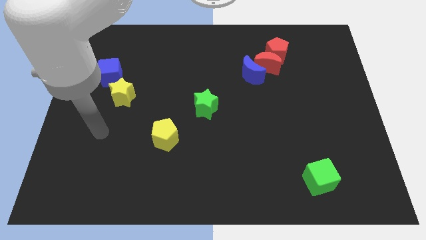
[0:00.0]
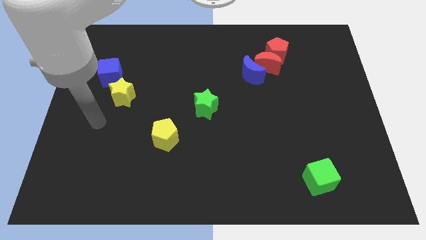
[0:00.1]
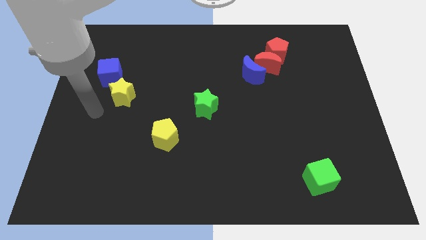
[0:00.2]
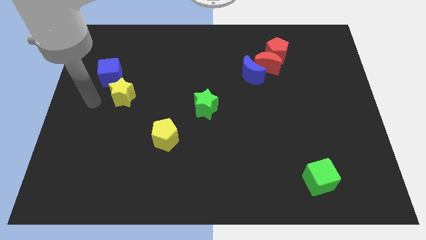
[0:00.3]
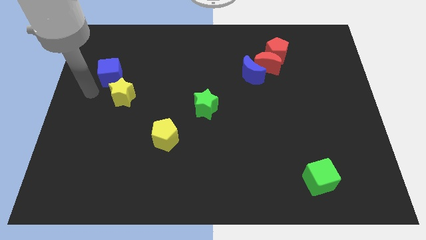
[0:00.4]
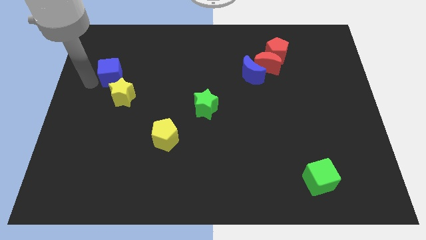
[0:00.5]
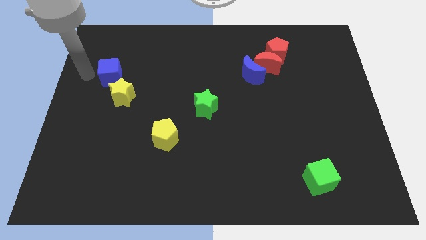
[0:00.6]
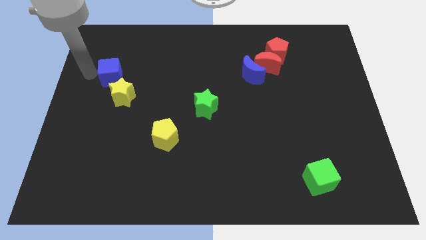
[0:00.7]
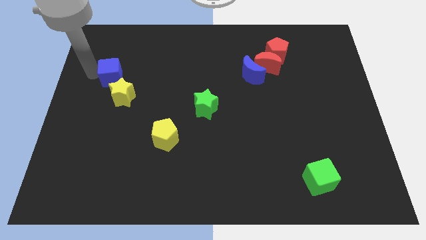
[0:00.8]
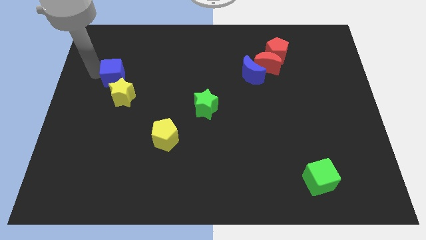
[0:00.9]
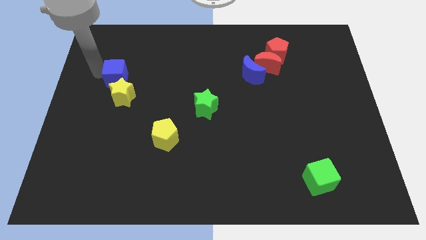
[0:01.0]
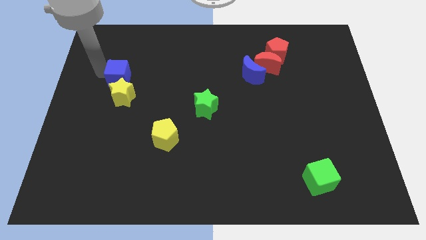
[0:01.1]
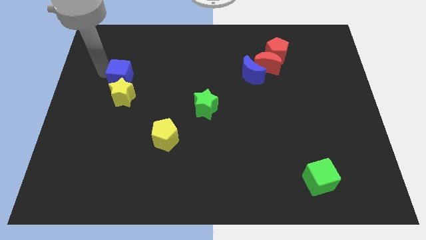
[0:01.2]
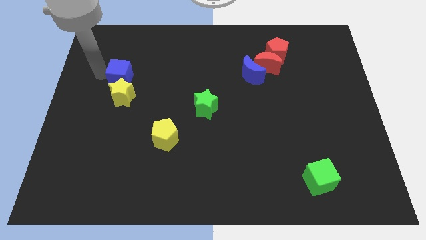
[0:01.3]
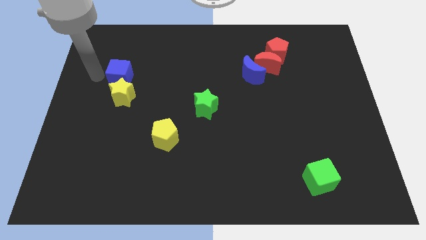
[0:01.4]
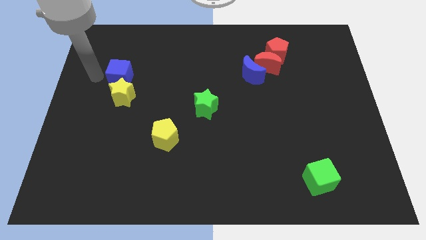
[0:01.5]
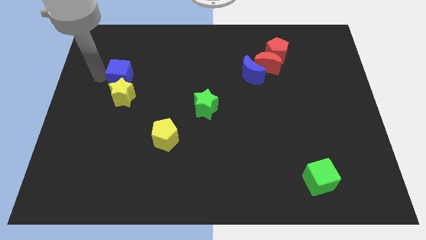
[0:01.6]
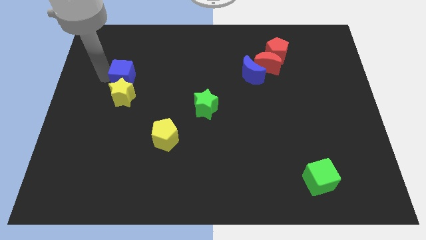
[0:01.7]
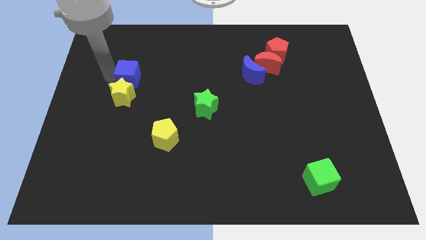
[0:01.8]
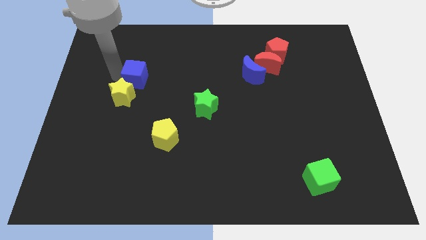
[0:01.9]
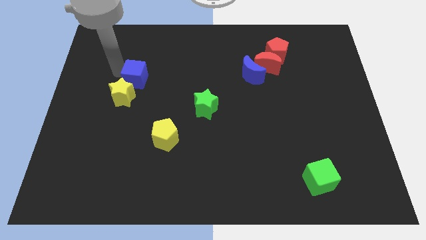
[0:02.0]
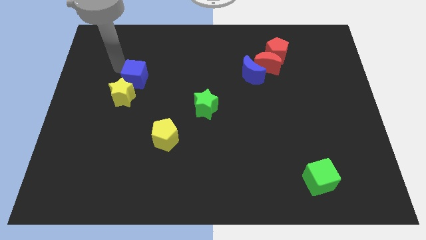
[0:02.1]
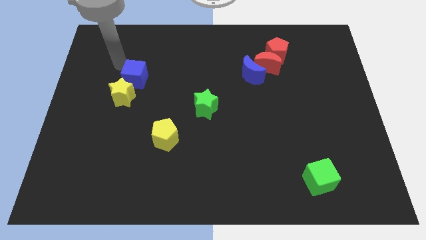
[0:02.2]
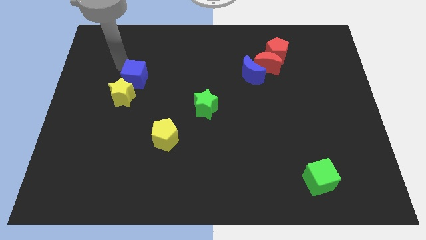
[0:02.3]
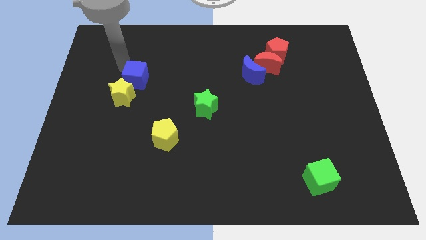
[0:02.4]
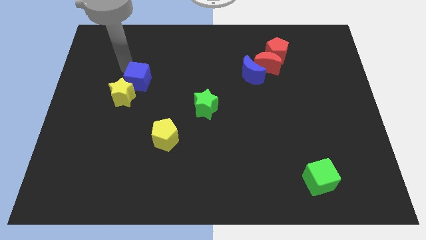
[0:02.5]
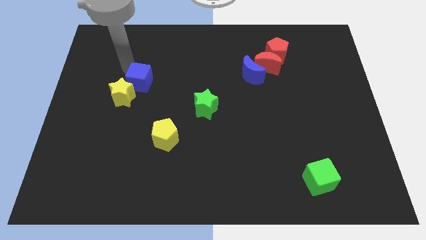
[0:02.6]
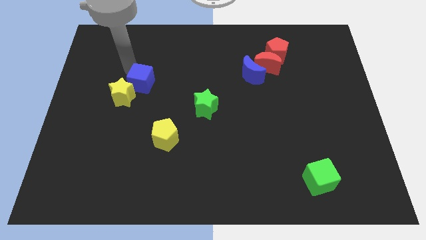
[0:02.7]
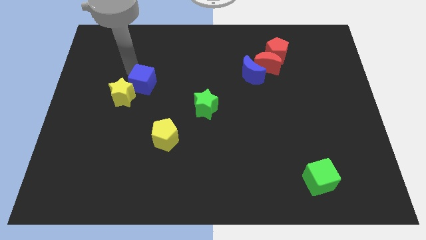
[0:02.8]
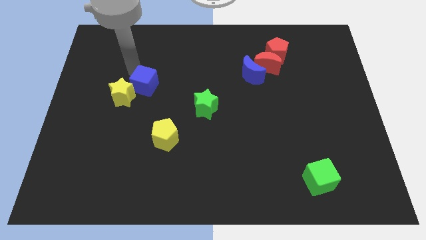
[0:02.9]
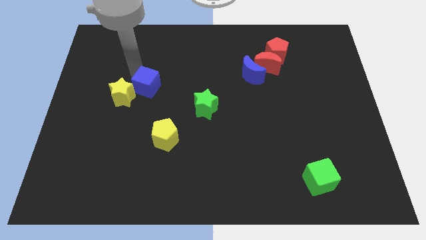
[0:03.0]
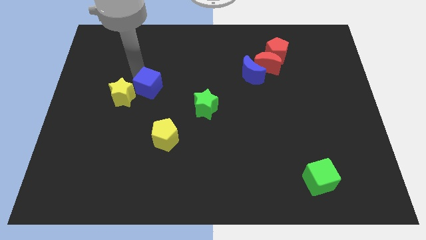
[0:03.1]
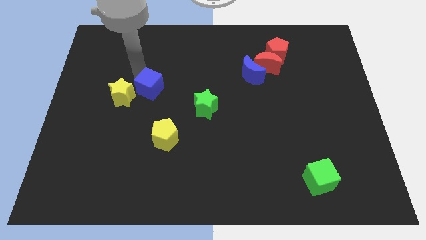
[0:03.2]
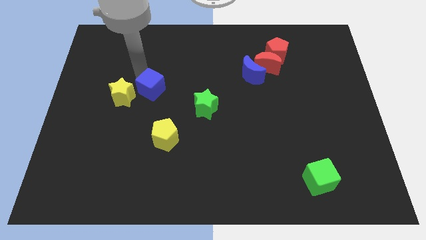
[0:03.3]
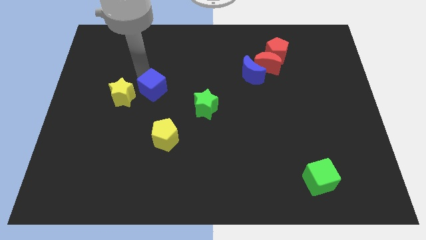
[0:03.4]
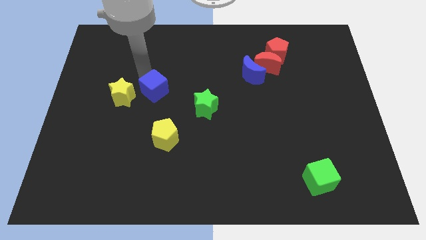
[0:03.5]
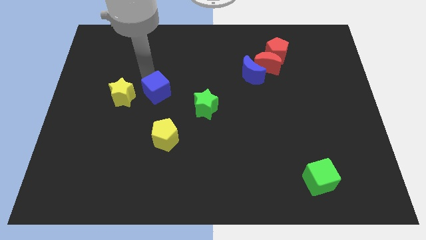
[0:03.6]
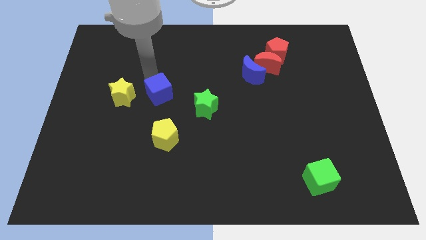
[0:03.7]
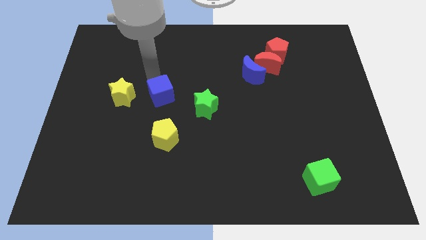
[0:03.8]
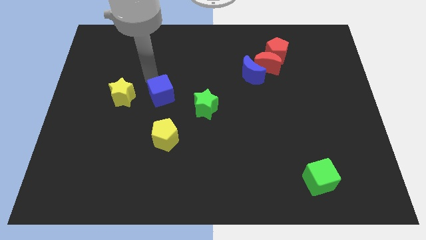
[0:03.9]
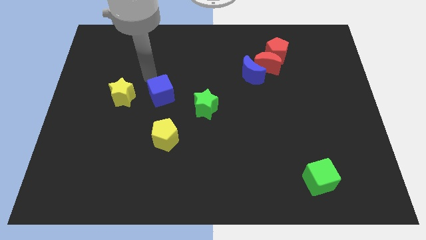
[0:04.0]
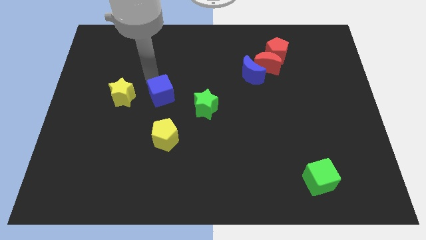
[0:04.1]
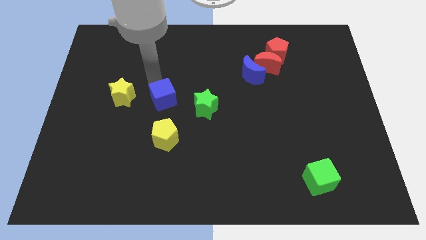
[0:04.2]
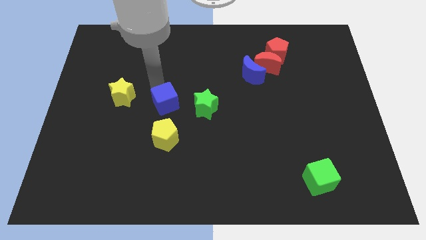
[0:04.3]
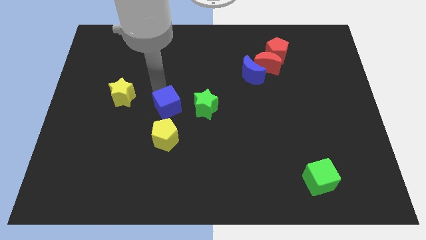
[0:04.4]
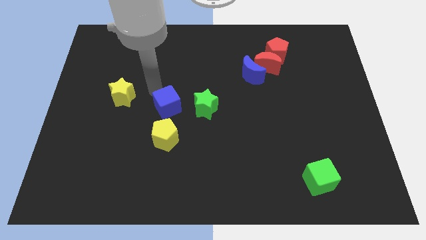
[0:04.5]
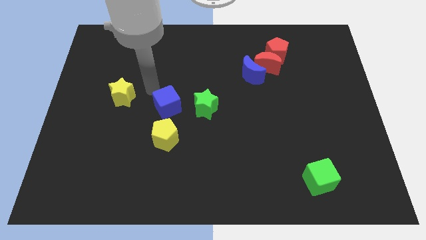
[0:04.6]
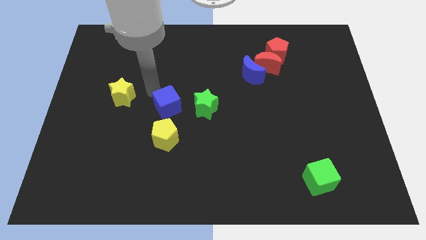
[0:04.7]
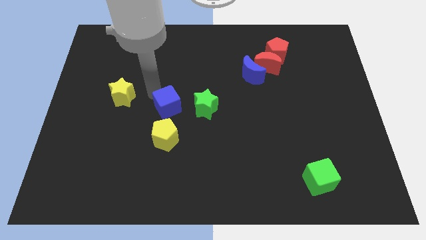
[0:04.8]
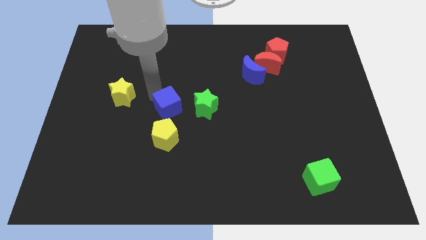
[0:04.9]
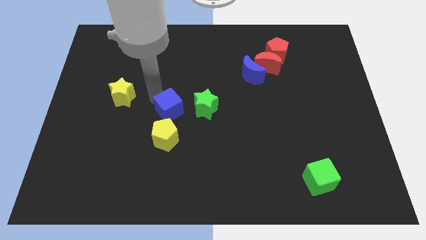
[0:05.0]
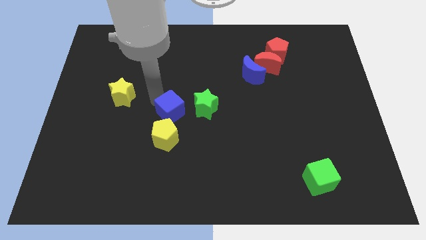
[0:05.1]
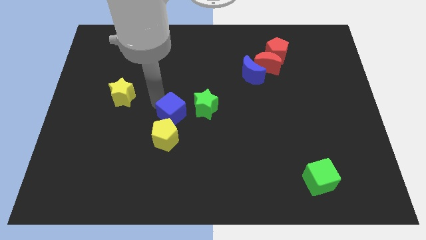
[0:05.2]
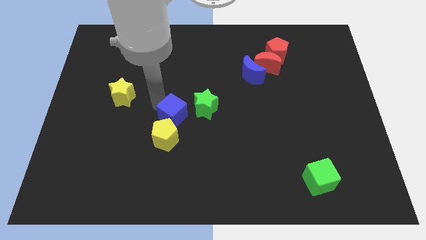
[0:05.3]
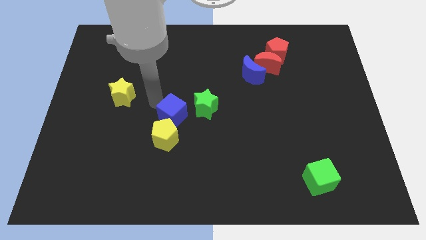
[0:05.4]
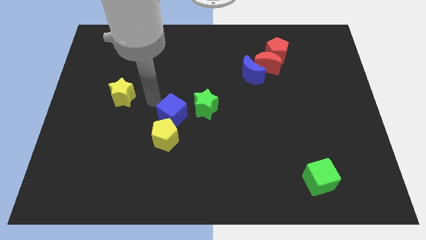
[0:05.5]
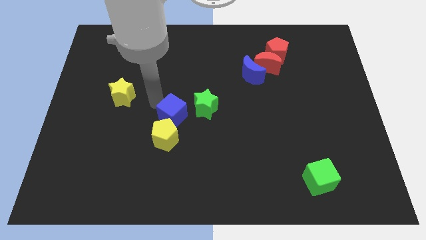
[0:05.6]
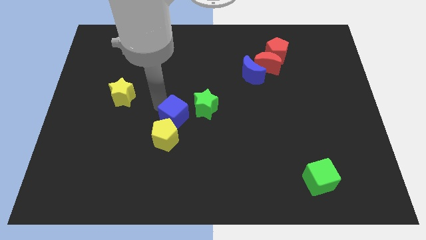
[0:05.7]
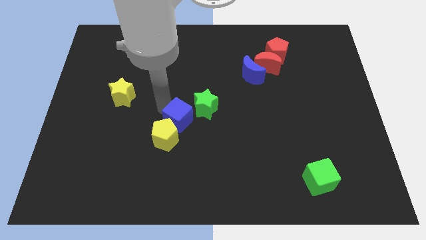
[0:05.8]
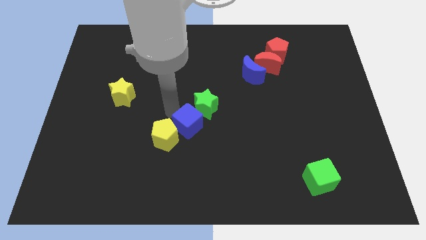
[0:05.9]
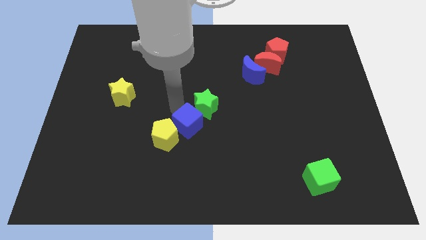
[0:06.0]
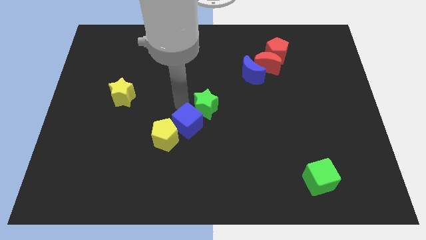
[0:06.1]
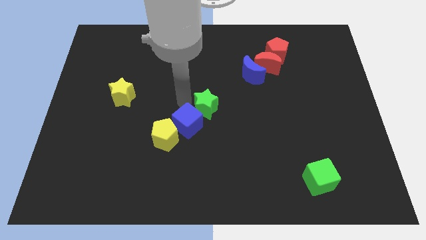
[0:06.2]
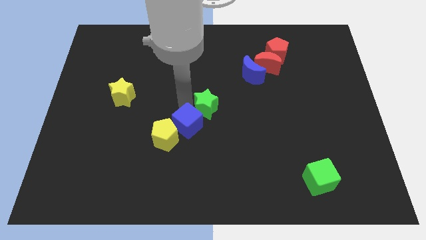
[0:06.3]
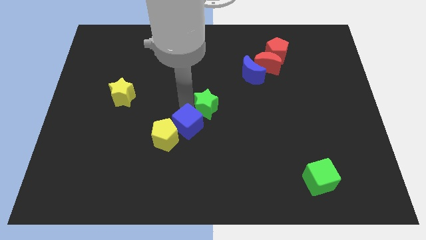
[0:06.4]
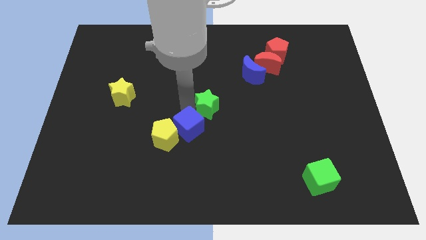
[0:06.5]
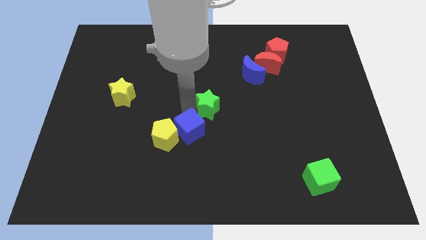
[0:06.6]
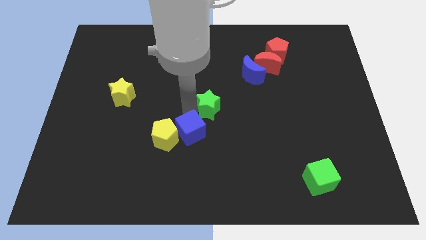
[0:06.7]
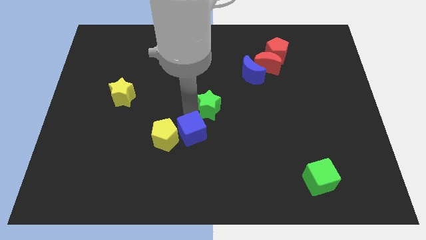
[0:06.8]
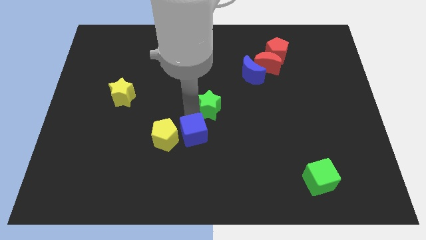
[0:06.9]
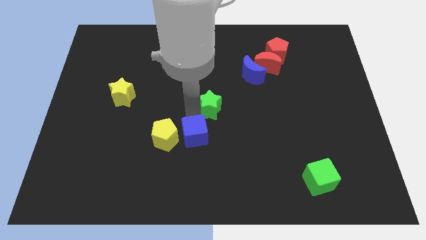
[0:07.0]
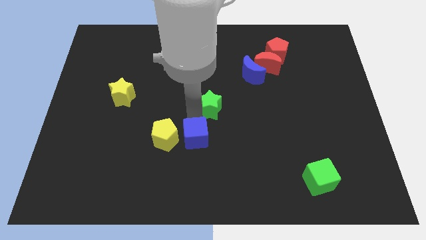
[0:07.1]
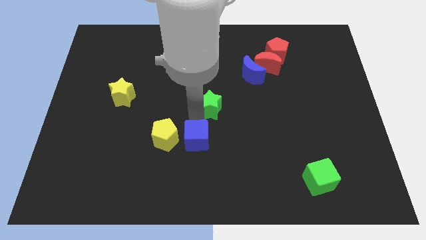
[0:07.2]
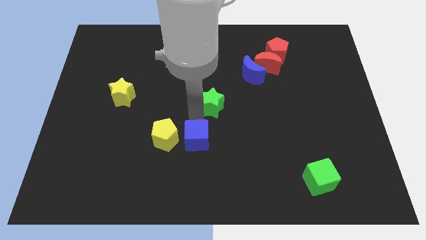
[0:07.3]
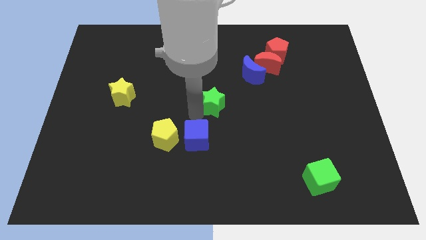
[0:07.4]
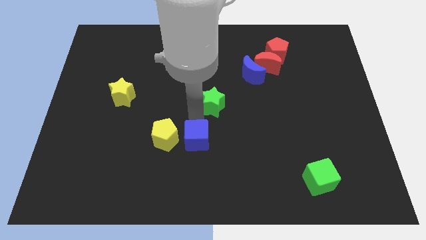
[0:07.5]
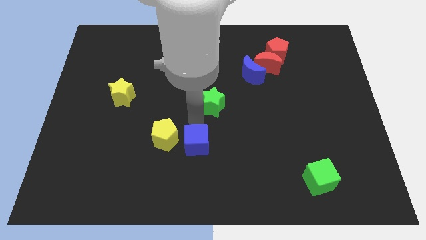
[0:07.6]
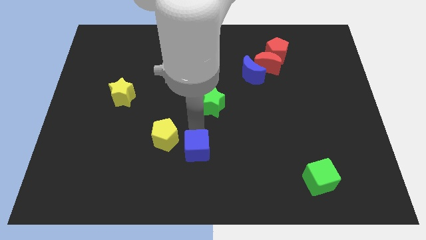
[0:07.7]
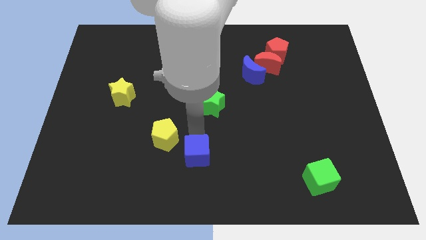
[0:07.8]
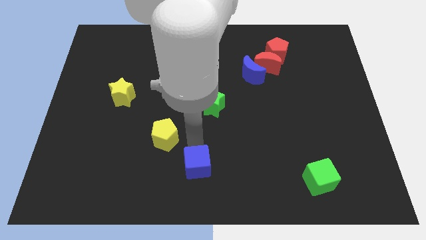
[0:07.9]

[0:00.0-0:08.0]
push the blue cube to the bottom
